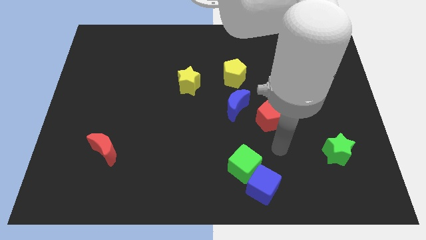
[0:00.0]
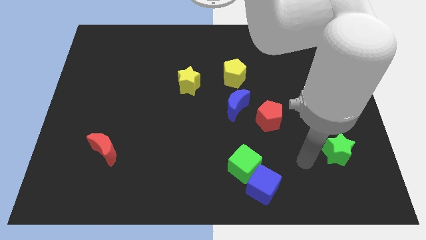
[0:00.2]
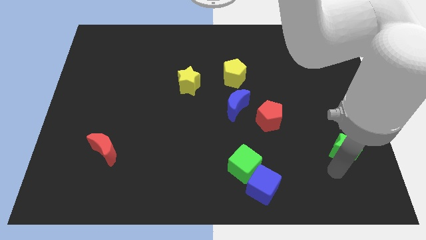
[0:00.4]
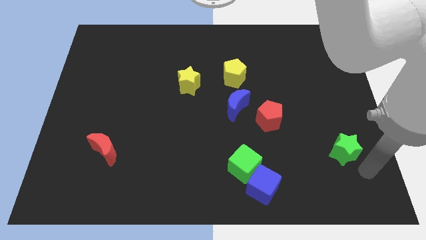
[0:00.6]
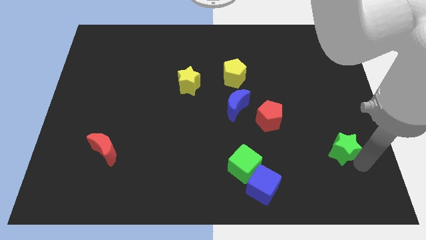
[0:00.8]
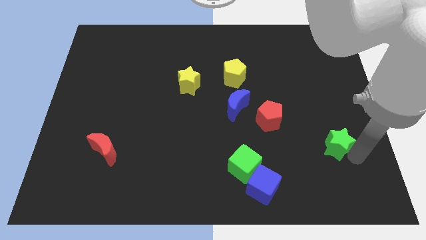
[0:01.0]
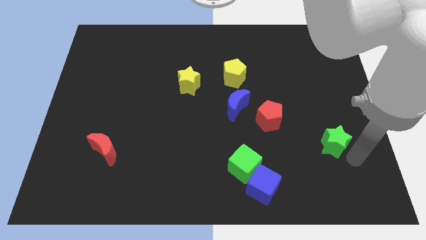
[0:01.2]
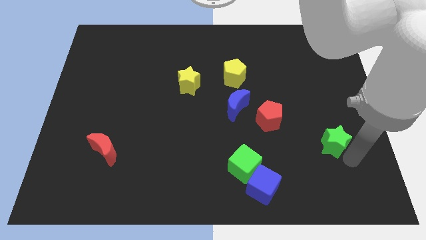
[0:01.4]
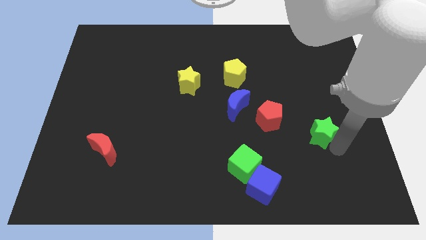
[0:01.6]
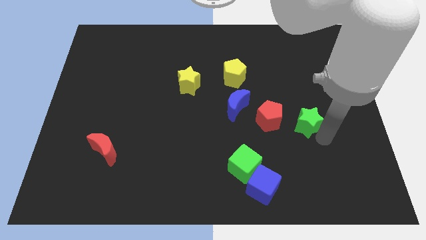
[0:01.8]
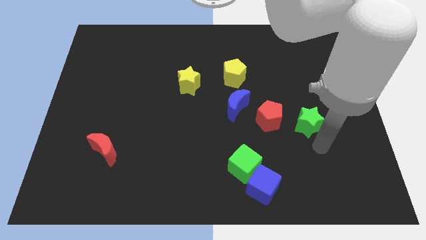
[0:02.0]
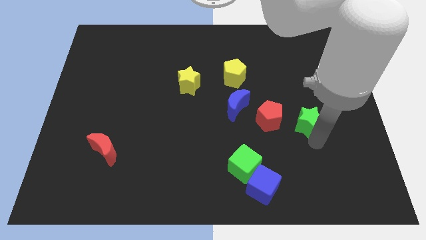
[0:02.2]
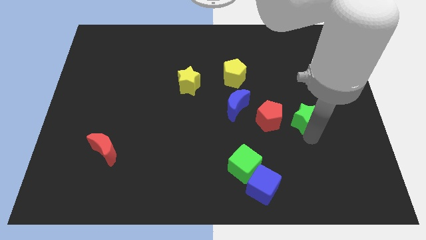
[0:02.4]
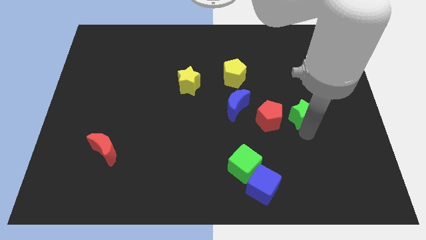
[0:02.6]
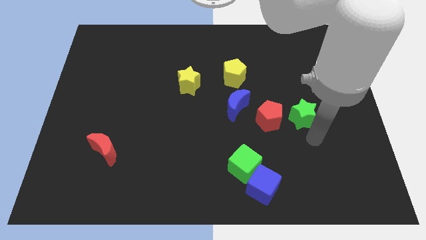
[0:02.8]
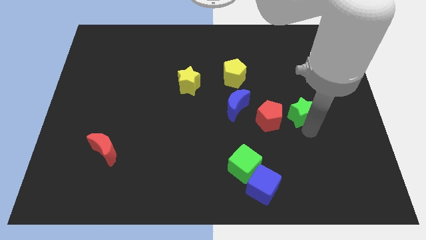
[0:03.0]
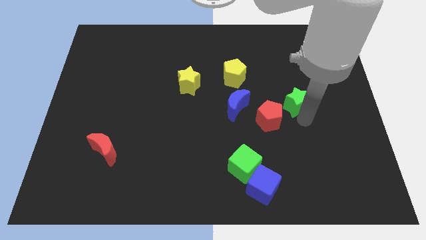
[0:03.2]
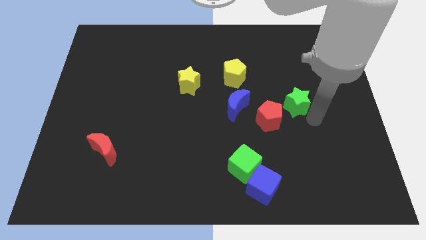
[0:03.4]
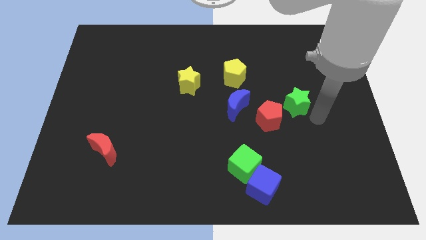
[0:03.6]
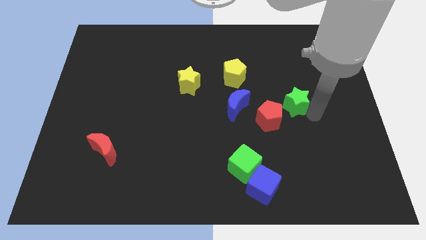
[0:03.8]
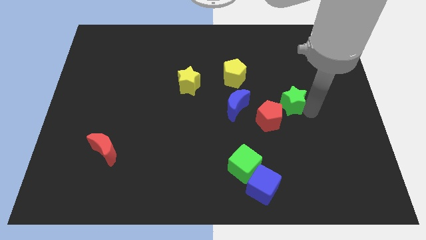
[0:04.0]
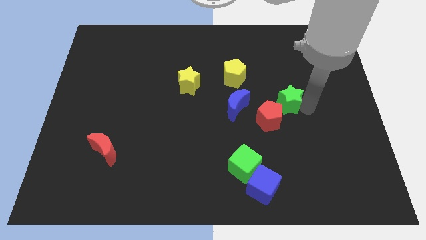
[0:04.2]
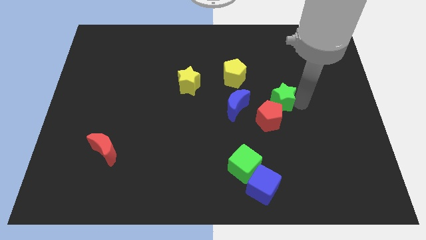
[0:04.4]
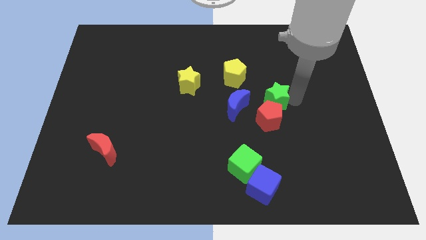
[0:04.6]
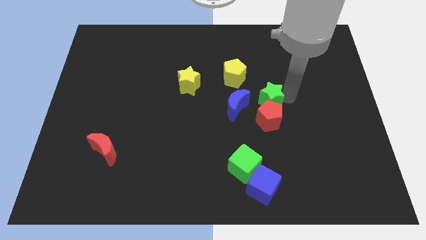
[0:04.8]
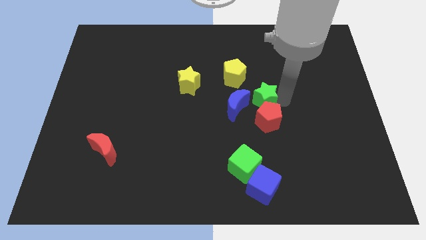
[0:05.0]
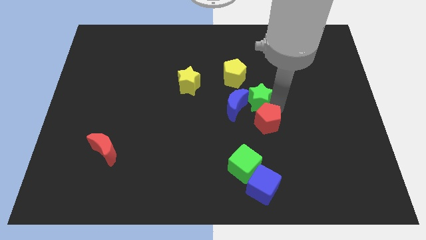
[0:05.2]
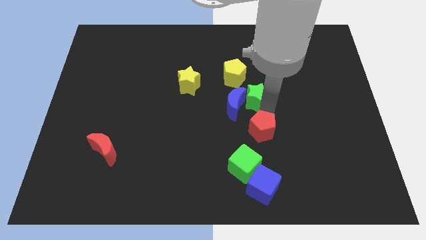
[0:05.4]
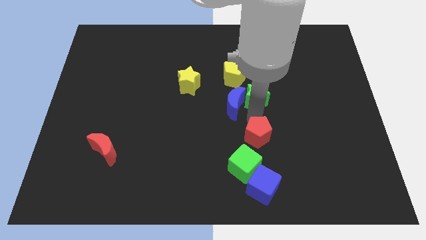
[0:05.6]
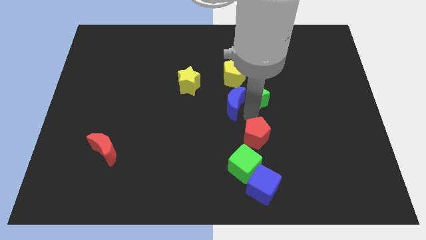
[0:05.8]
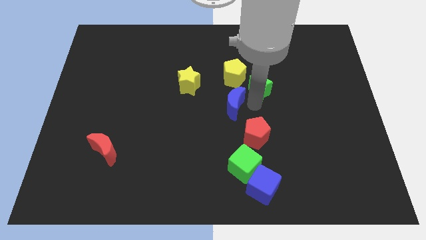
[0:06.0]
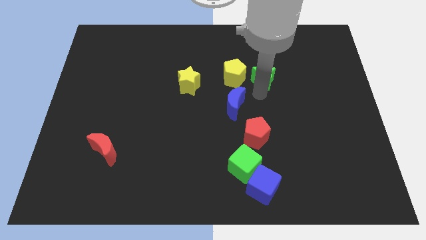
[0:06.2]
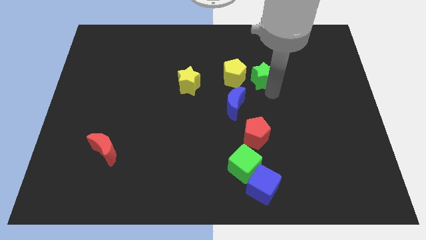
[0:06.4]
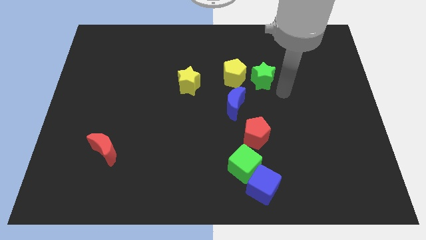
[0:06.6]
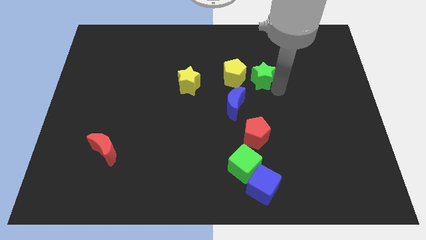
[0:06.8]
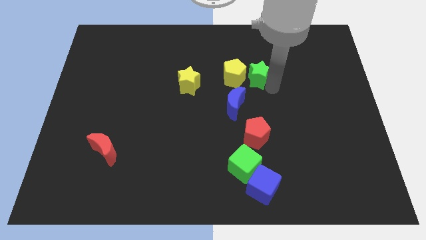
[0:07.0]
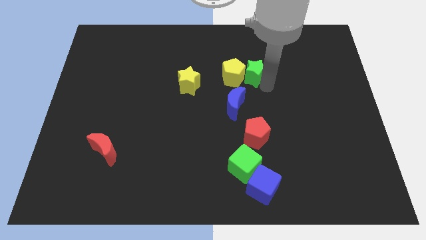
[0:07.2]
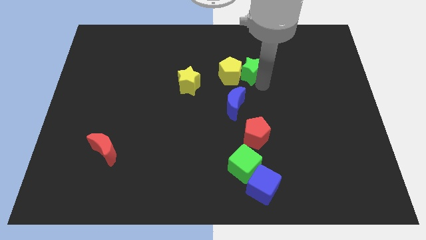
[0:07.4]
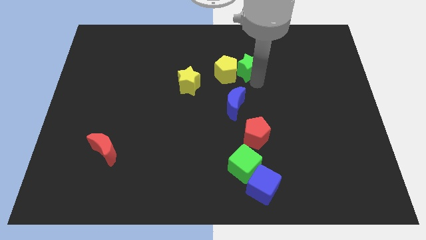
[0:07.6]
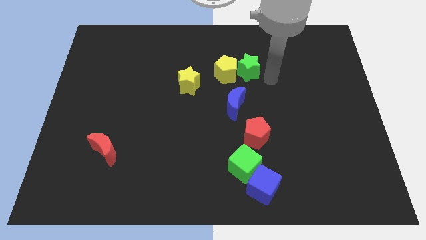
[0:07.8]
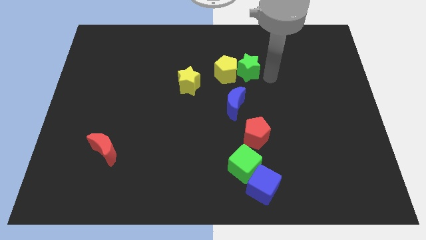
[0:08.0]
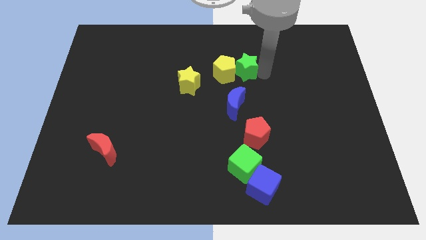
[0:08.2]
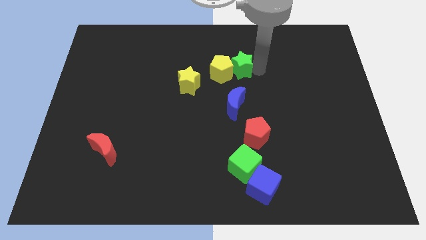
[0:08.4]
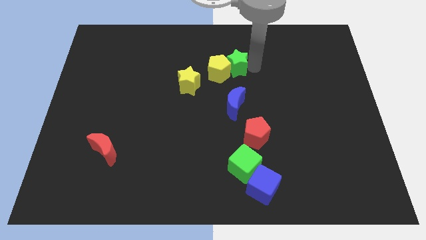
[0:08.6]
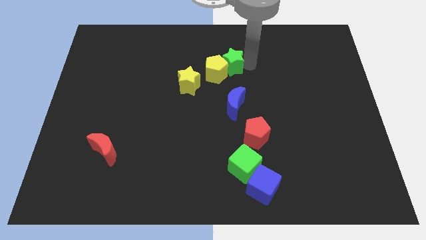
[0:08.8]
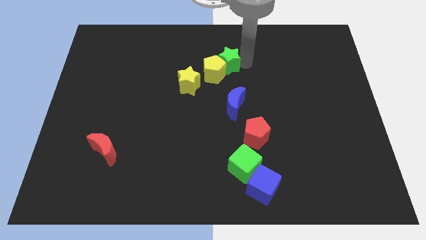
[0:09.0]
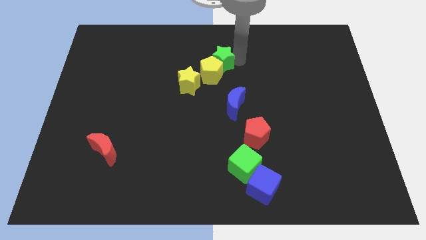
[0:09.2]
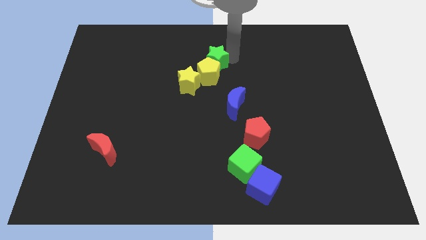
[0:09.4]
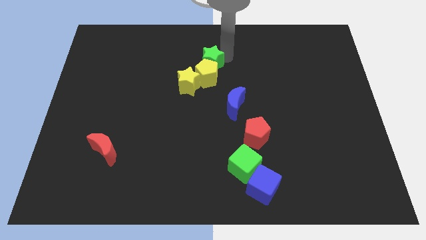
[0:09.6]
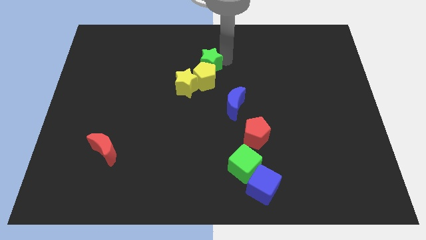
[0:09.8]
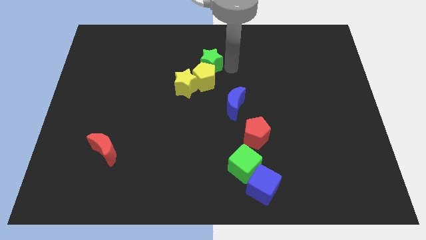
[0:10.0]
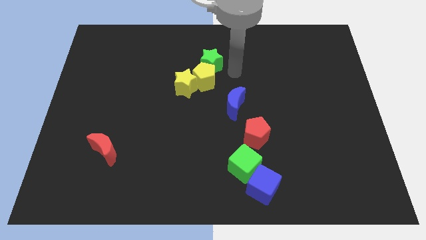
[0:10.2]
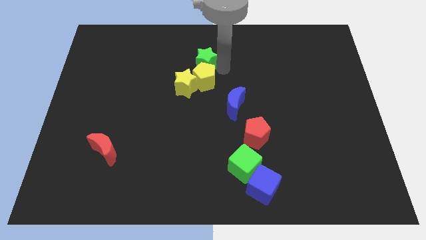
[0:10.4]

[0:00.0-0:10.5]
slide the green star above the yellow star

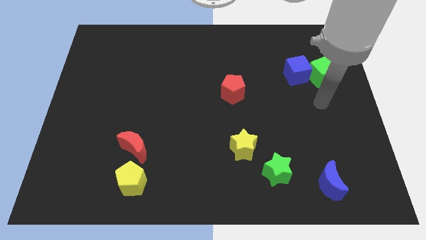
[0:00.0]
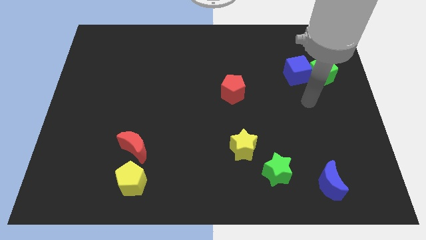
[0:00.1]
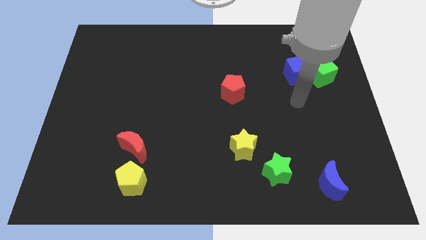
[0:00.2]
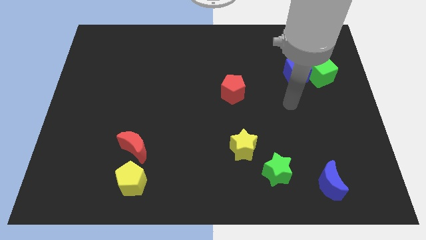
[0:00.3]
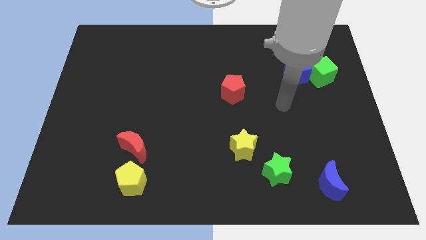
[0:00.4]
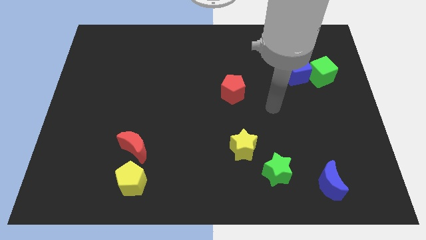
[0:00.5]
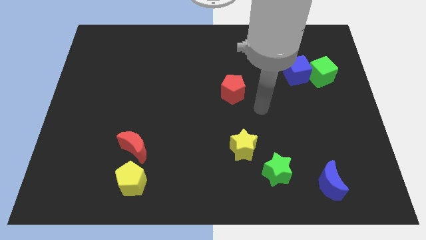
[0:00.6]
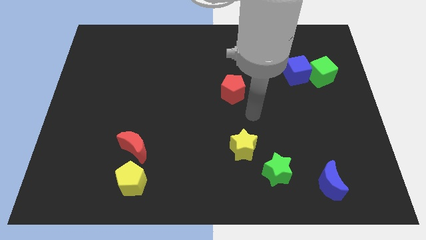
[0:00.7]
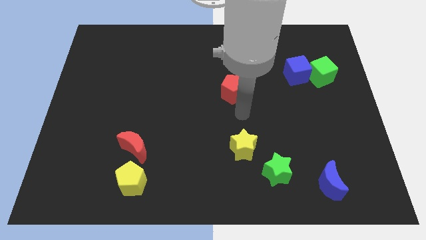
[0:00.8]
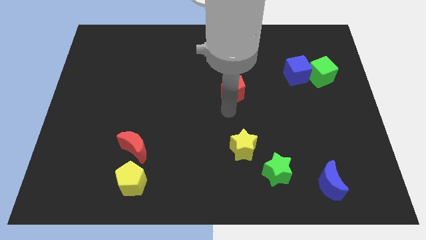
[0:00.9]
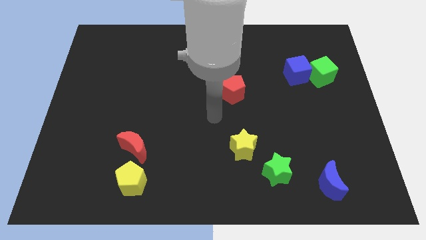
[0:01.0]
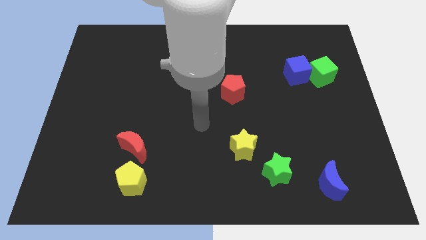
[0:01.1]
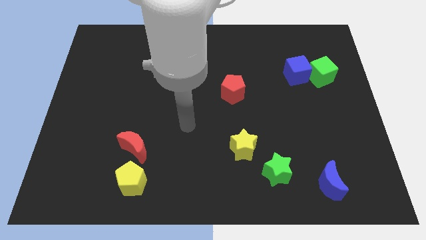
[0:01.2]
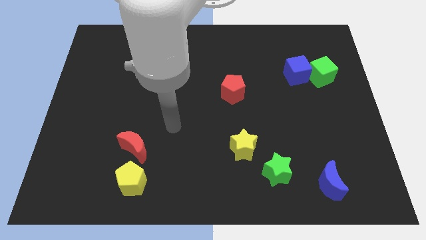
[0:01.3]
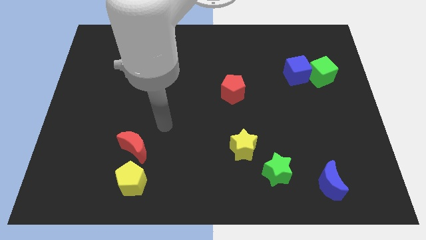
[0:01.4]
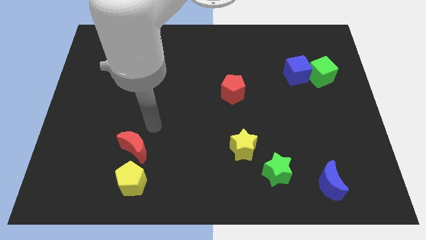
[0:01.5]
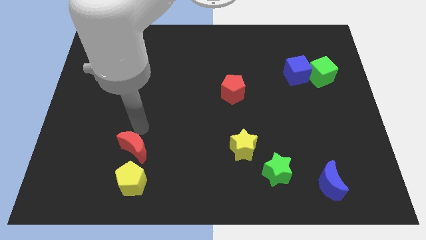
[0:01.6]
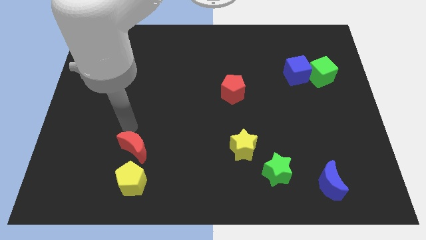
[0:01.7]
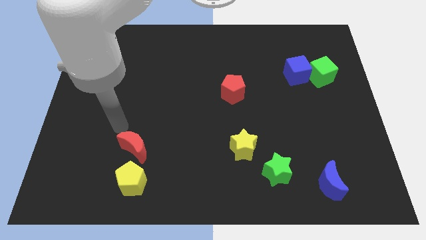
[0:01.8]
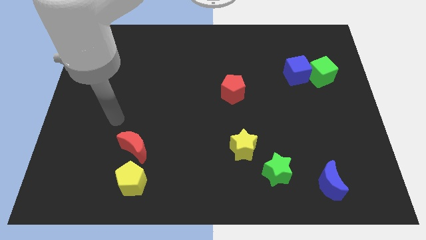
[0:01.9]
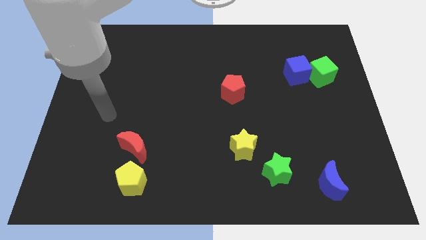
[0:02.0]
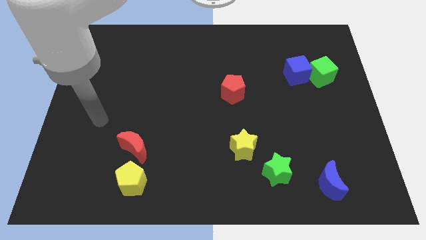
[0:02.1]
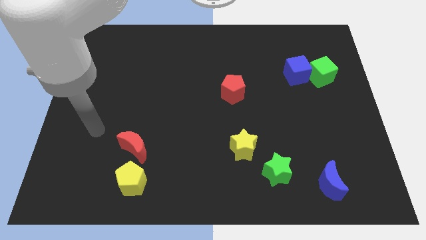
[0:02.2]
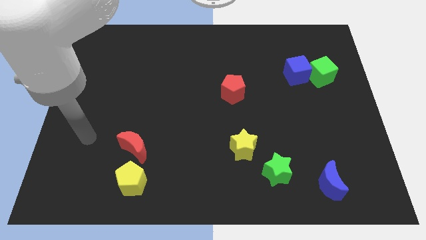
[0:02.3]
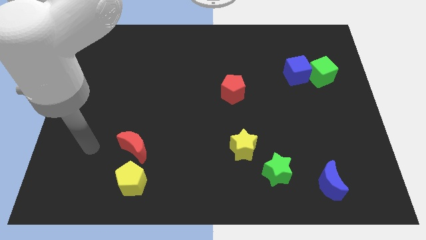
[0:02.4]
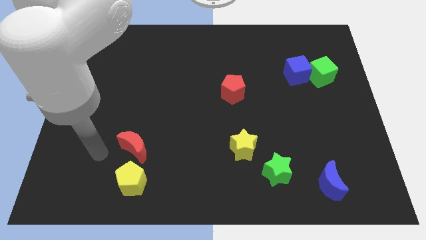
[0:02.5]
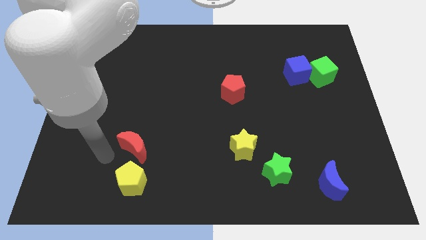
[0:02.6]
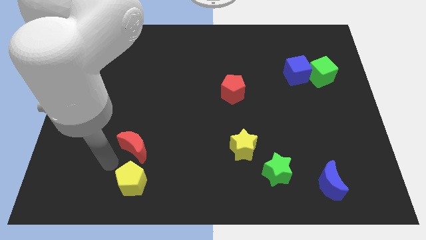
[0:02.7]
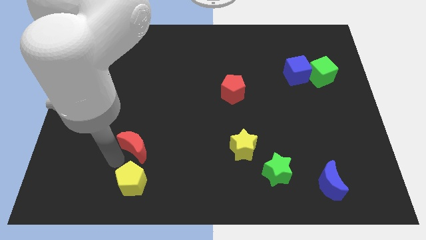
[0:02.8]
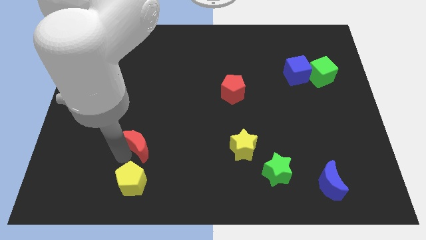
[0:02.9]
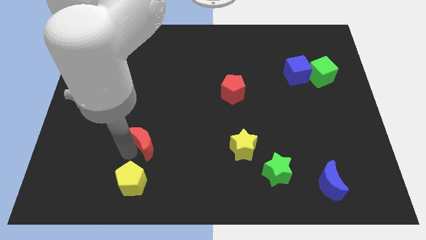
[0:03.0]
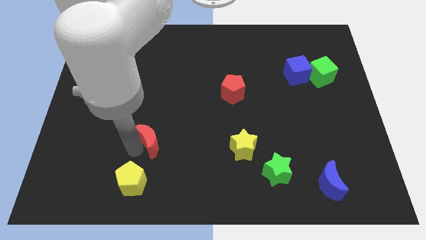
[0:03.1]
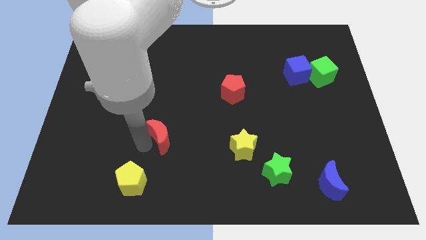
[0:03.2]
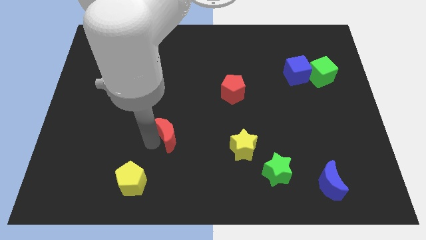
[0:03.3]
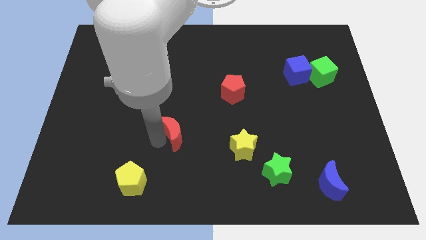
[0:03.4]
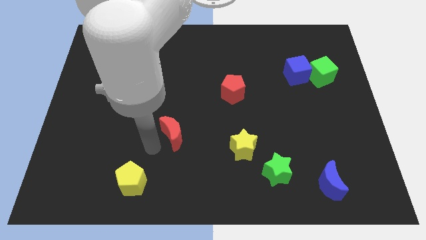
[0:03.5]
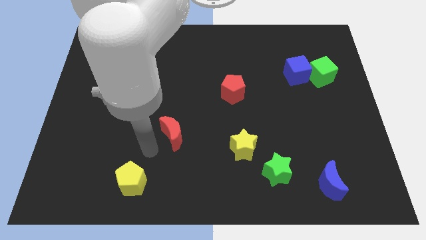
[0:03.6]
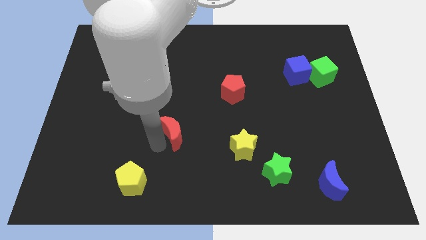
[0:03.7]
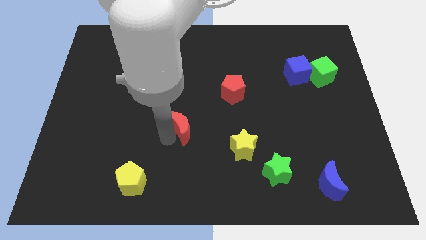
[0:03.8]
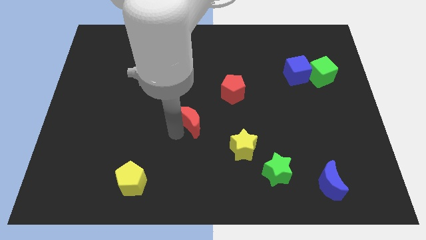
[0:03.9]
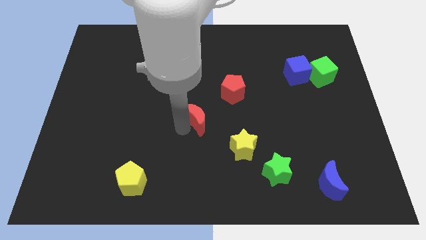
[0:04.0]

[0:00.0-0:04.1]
push the red moon to the bottom left side of the red pentagon
